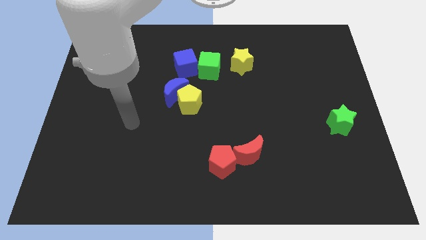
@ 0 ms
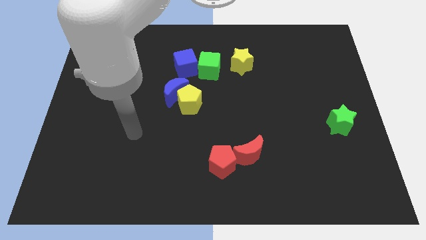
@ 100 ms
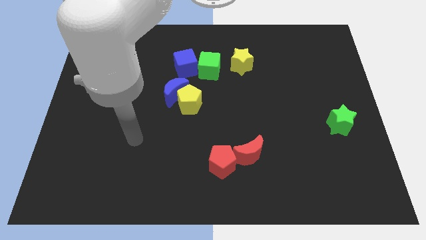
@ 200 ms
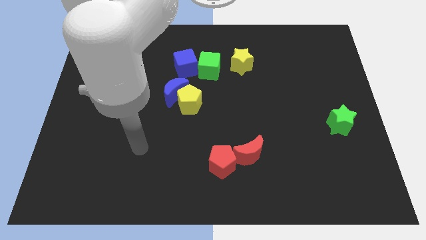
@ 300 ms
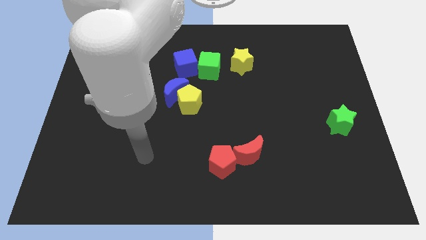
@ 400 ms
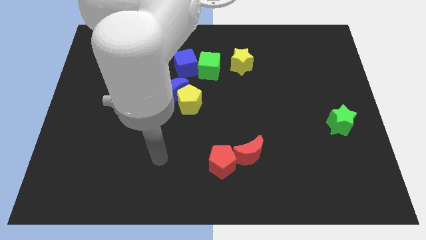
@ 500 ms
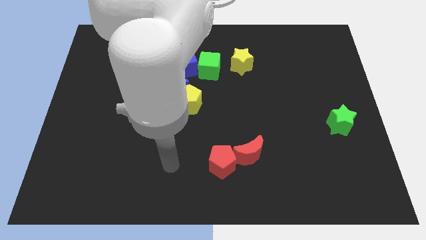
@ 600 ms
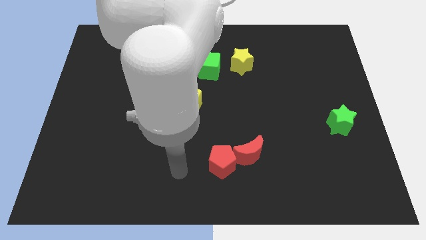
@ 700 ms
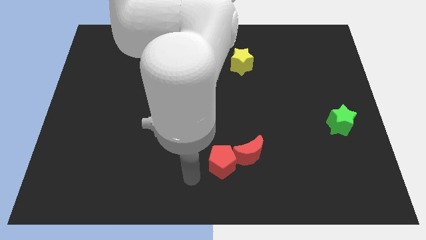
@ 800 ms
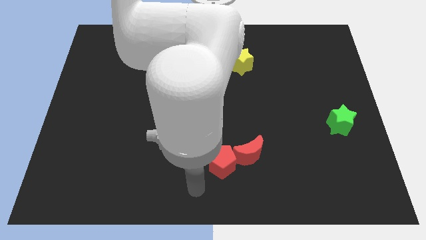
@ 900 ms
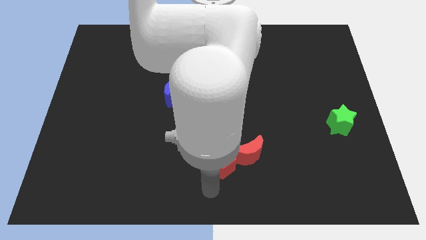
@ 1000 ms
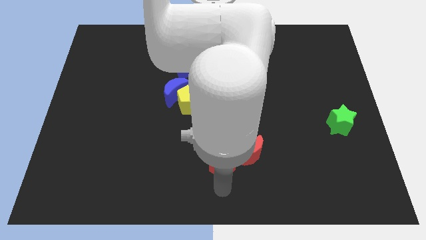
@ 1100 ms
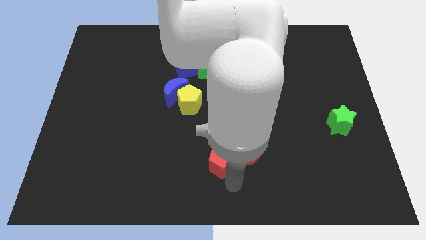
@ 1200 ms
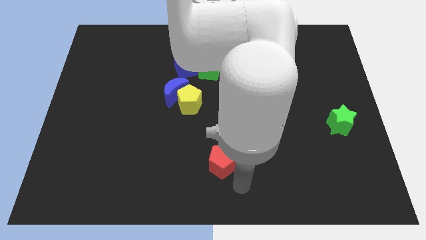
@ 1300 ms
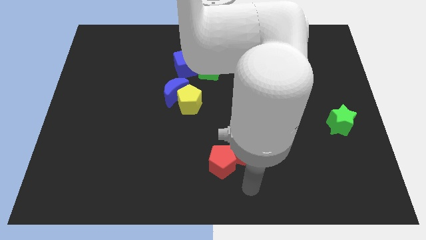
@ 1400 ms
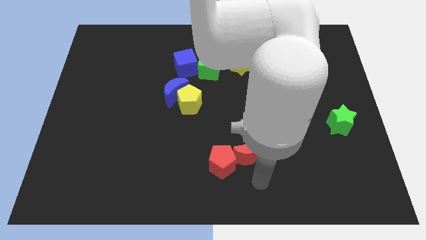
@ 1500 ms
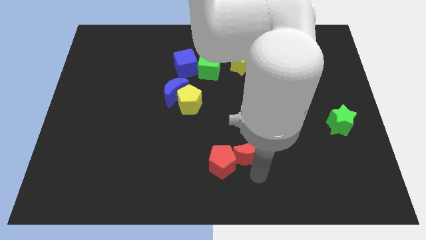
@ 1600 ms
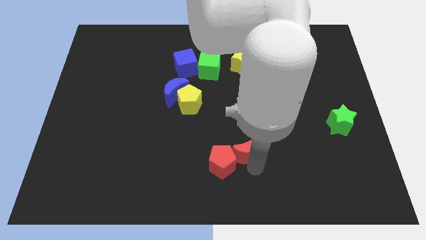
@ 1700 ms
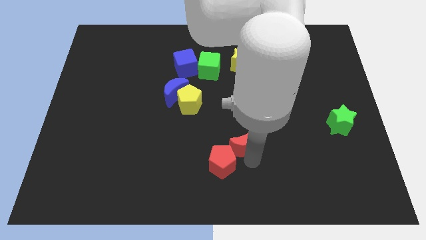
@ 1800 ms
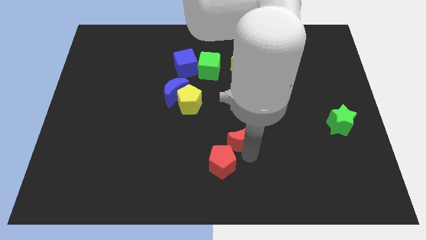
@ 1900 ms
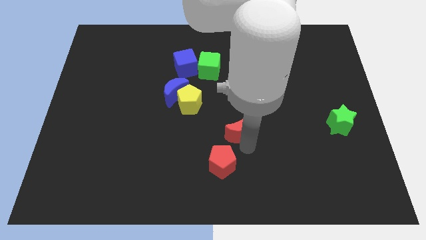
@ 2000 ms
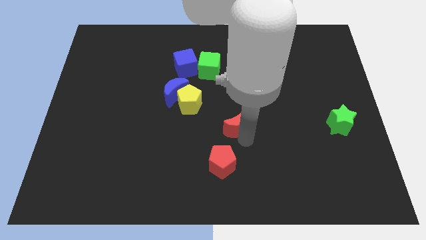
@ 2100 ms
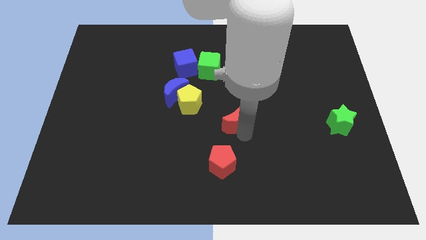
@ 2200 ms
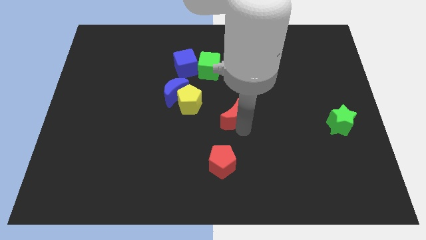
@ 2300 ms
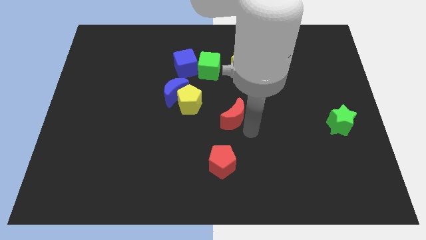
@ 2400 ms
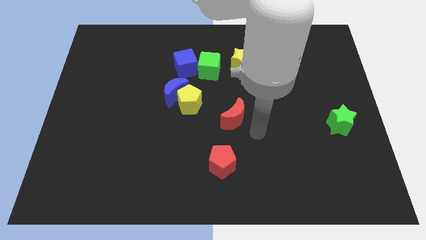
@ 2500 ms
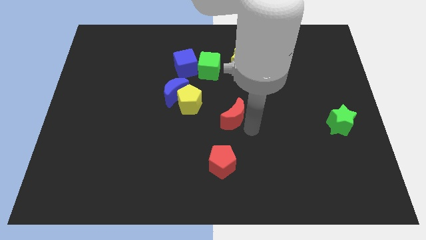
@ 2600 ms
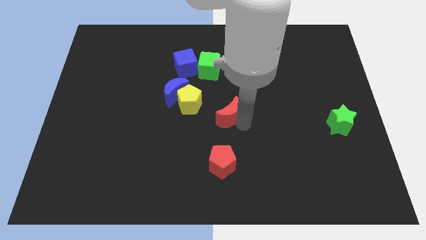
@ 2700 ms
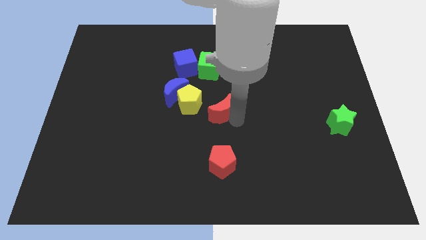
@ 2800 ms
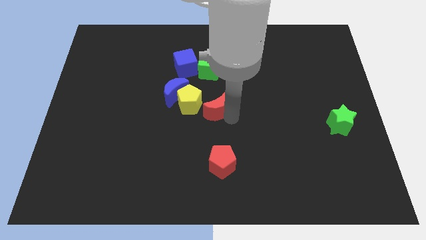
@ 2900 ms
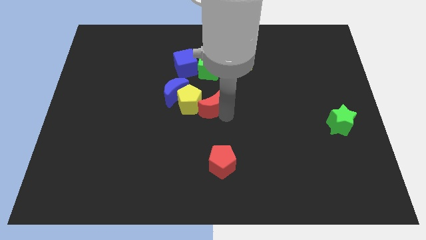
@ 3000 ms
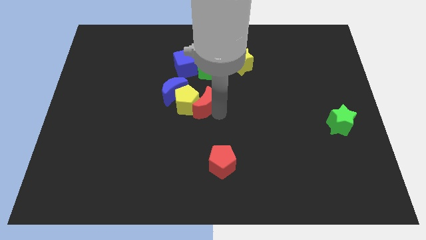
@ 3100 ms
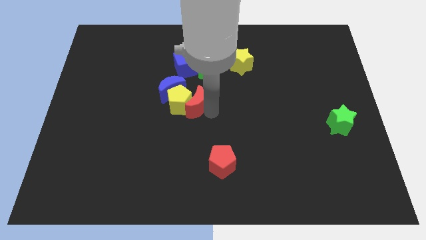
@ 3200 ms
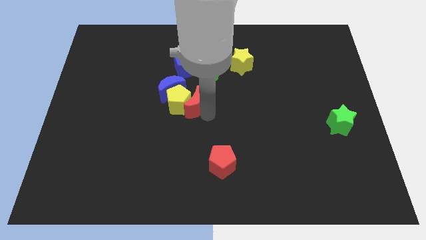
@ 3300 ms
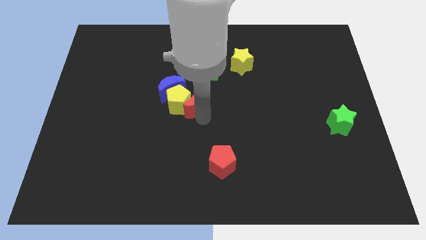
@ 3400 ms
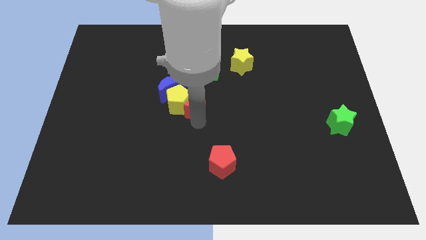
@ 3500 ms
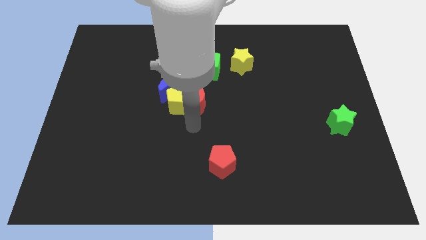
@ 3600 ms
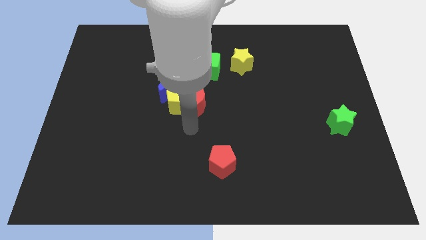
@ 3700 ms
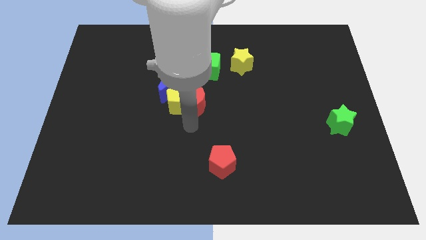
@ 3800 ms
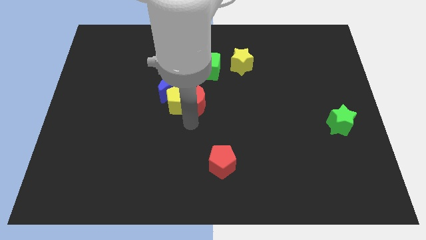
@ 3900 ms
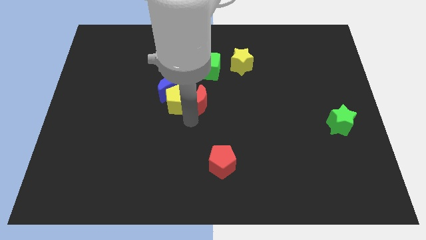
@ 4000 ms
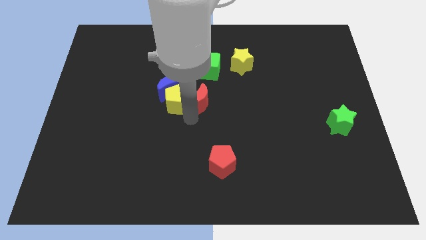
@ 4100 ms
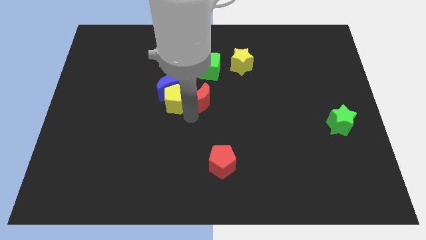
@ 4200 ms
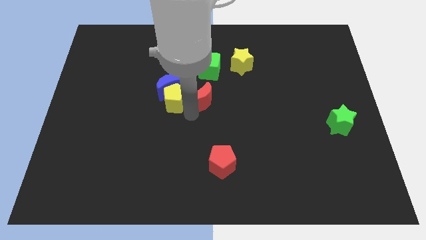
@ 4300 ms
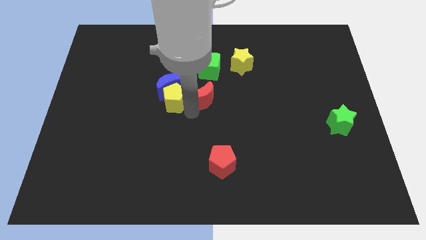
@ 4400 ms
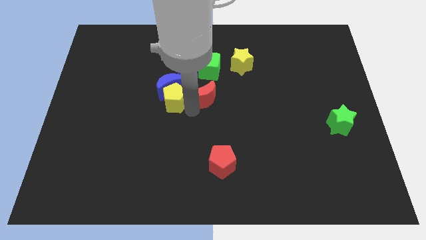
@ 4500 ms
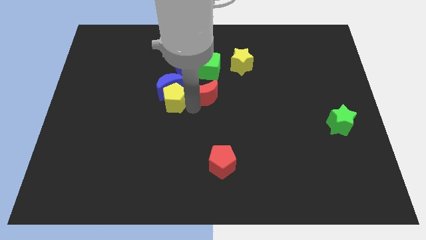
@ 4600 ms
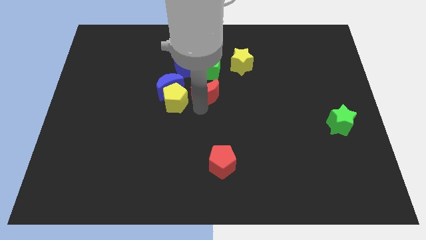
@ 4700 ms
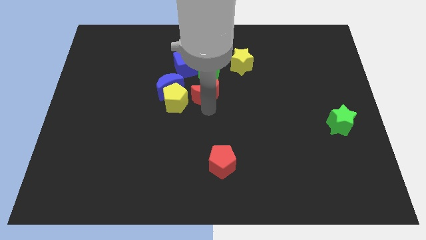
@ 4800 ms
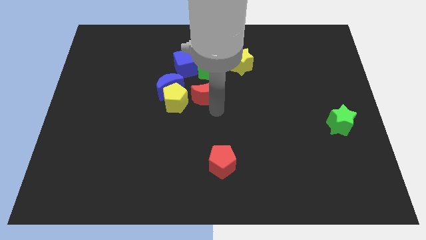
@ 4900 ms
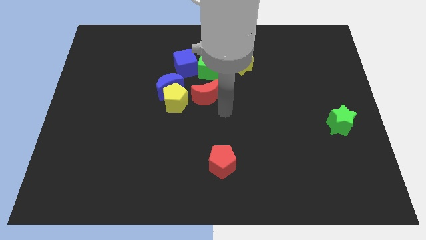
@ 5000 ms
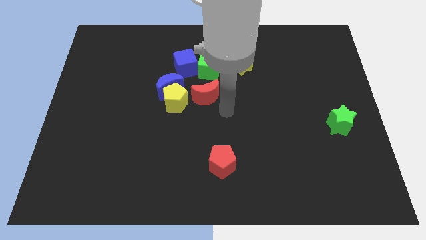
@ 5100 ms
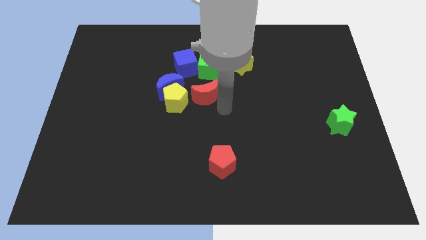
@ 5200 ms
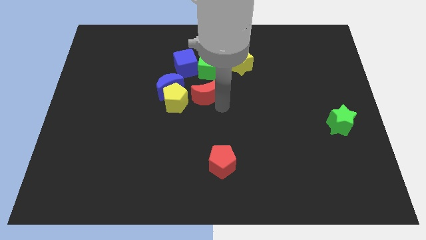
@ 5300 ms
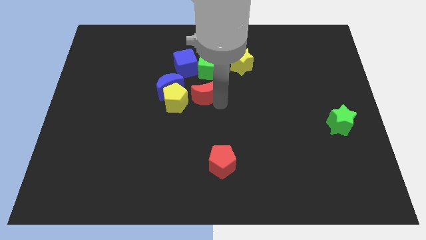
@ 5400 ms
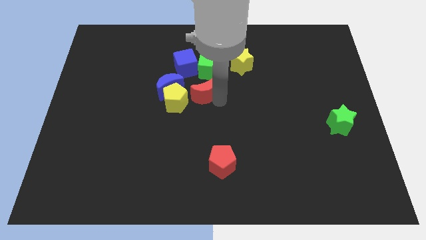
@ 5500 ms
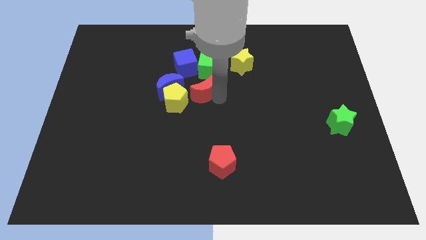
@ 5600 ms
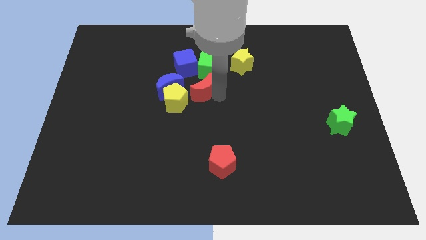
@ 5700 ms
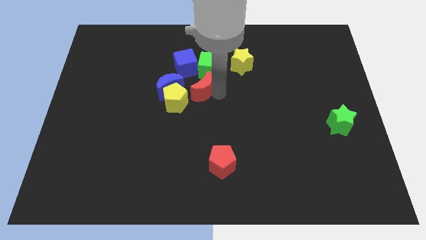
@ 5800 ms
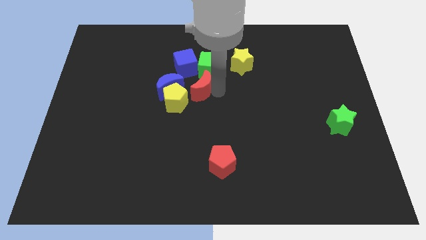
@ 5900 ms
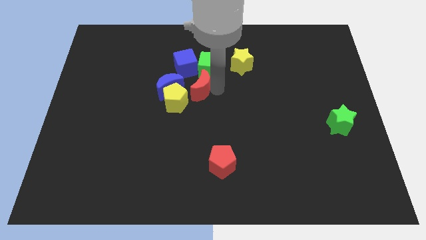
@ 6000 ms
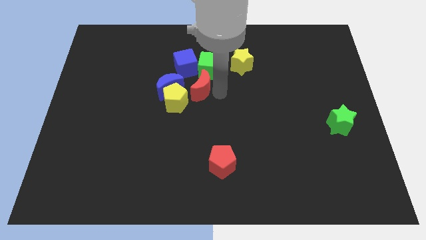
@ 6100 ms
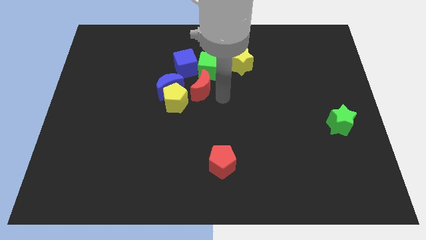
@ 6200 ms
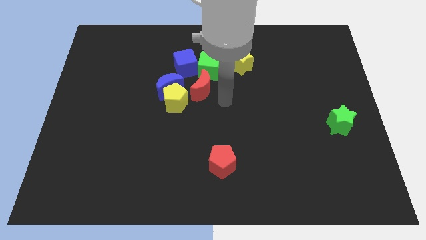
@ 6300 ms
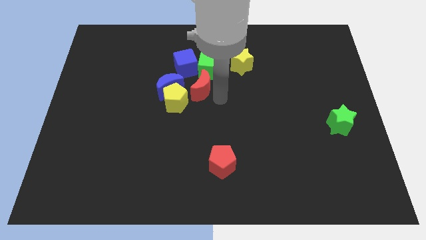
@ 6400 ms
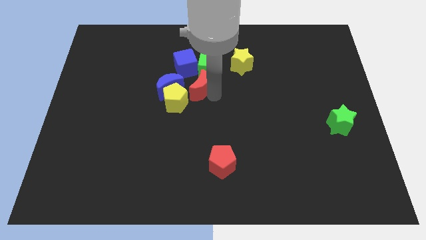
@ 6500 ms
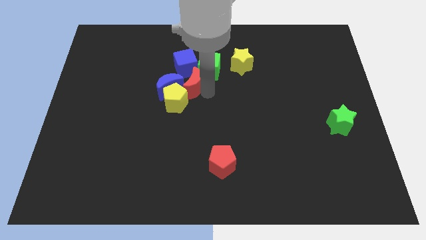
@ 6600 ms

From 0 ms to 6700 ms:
slide the red moon up and then to the left

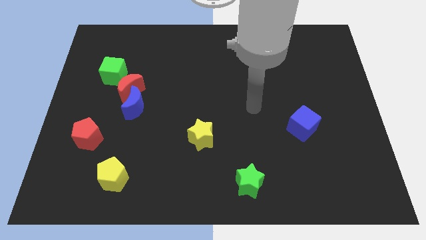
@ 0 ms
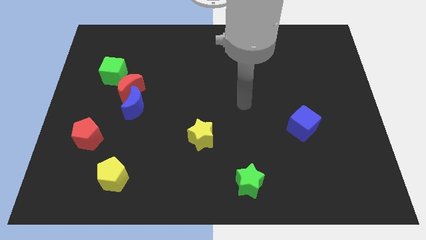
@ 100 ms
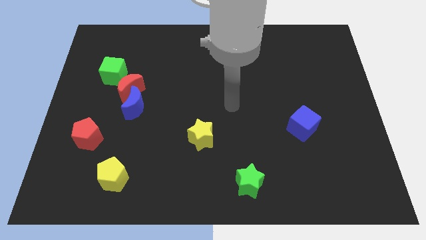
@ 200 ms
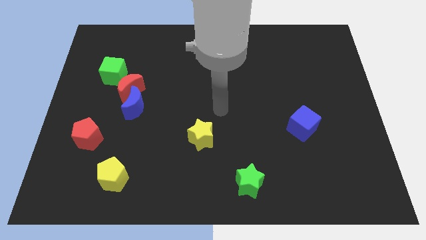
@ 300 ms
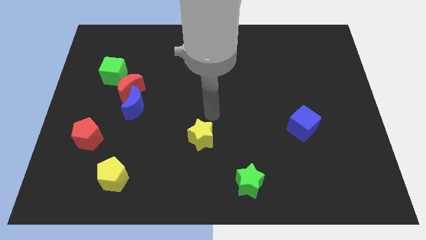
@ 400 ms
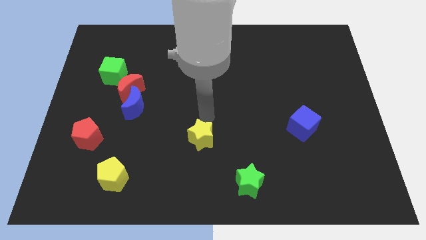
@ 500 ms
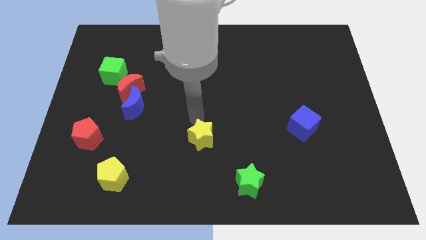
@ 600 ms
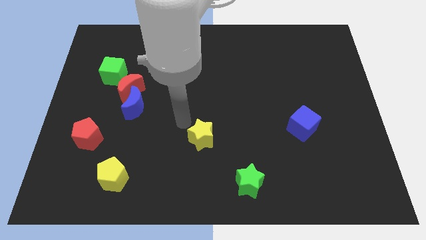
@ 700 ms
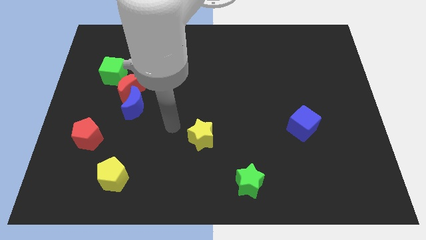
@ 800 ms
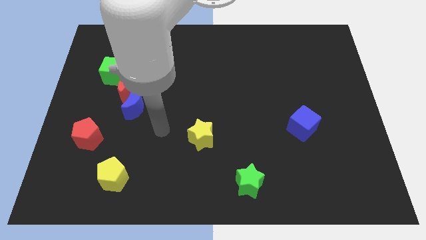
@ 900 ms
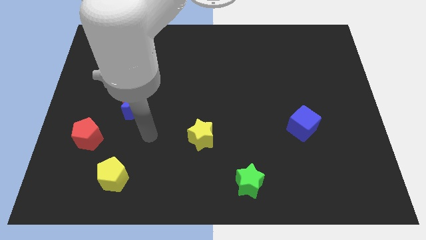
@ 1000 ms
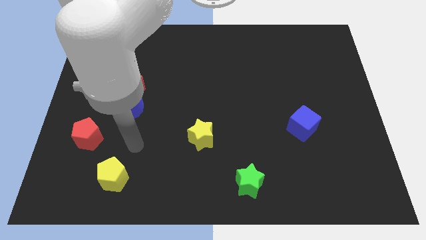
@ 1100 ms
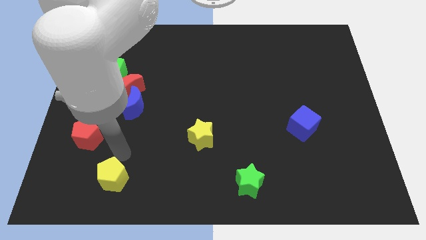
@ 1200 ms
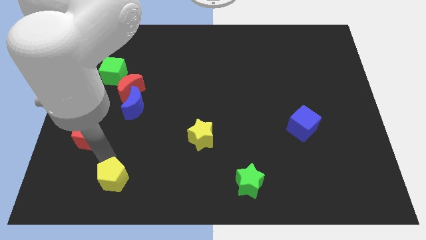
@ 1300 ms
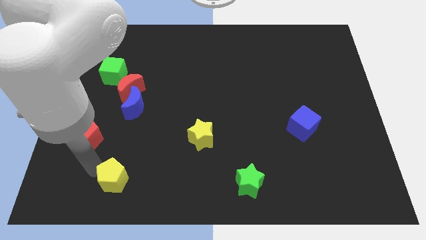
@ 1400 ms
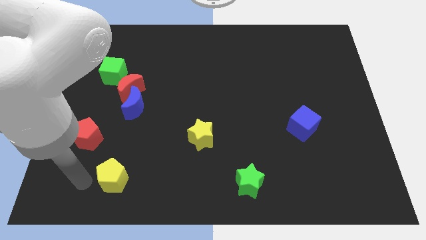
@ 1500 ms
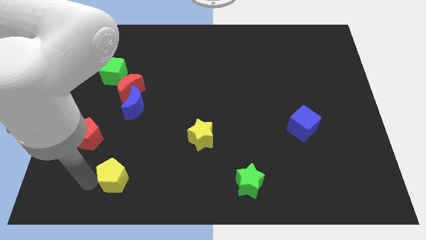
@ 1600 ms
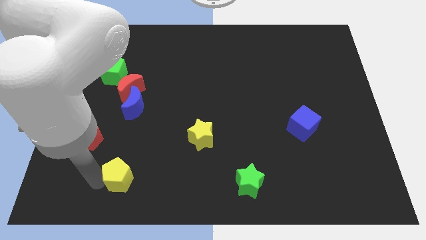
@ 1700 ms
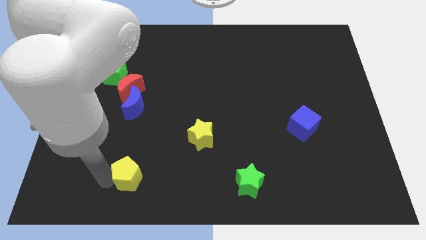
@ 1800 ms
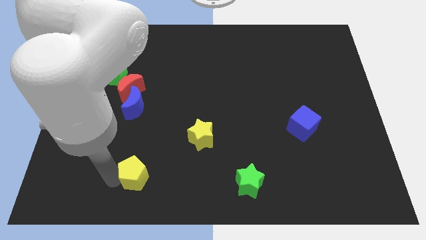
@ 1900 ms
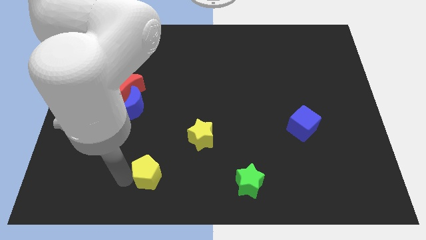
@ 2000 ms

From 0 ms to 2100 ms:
slightly push the yellow pentagon right
